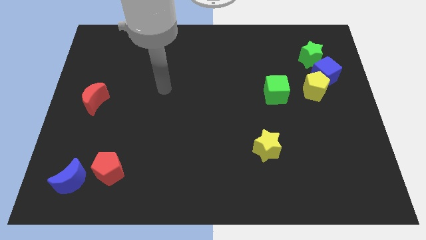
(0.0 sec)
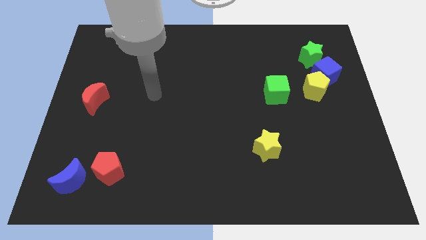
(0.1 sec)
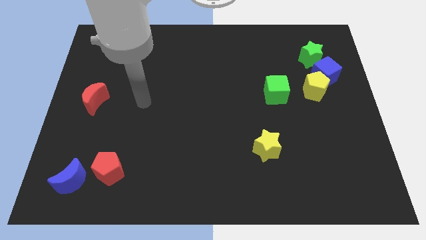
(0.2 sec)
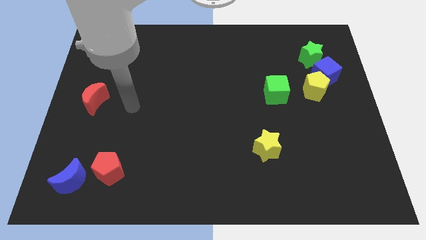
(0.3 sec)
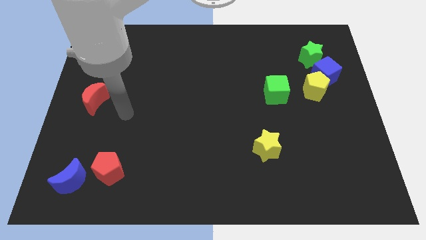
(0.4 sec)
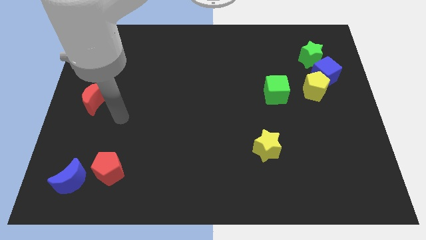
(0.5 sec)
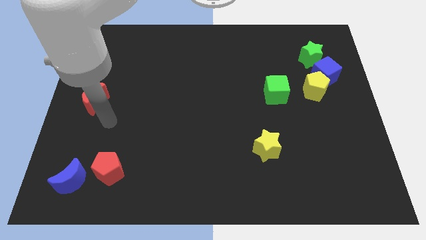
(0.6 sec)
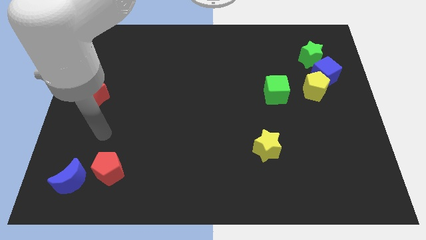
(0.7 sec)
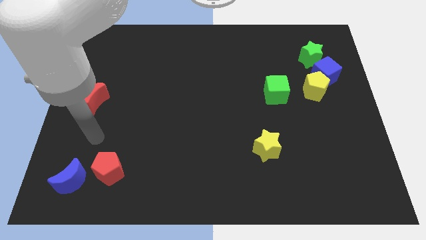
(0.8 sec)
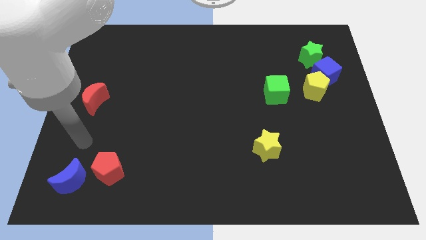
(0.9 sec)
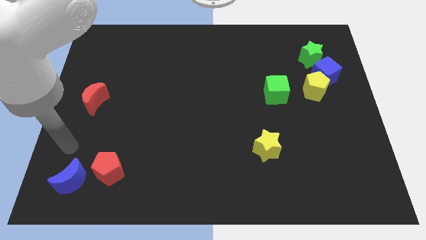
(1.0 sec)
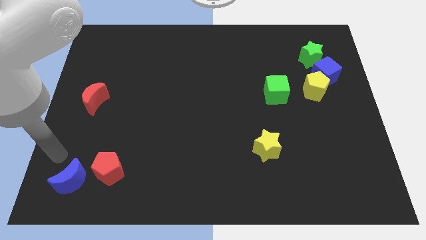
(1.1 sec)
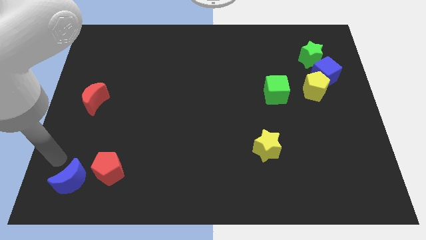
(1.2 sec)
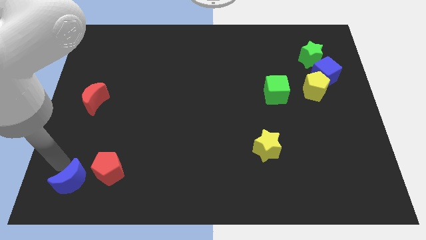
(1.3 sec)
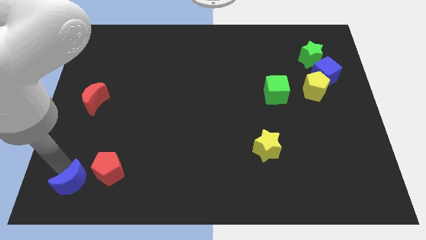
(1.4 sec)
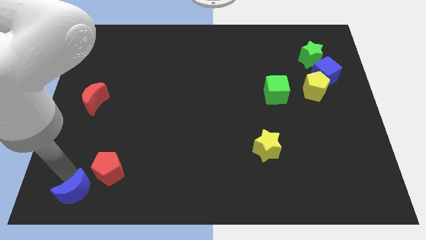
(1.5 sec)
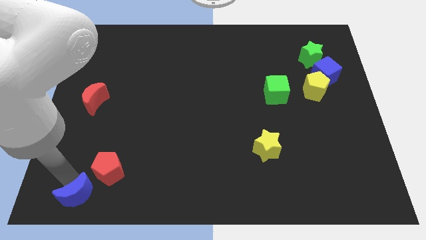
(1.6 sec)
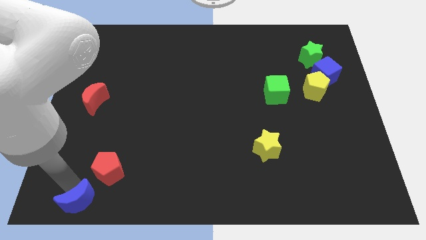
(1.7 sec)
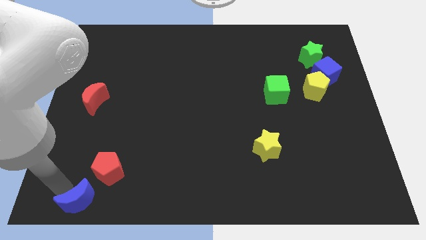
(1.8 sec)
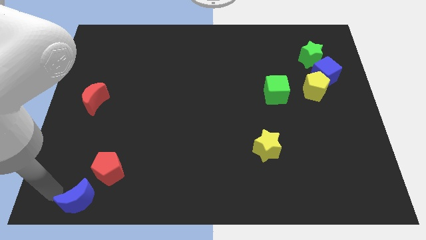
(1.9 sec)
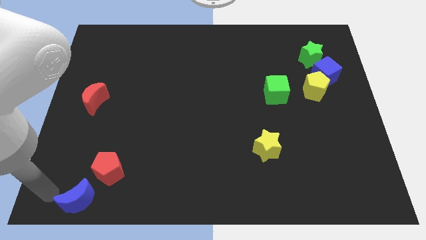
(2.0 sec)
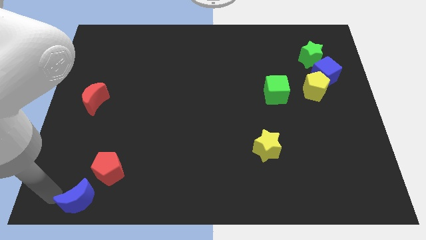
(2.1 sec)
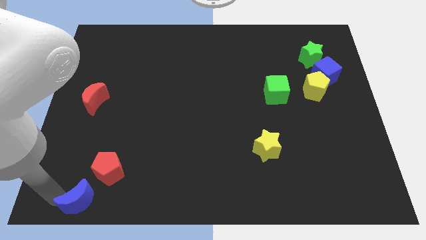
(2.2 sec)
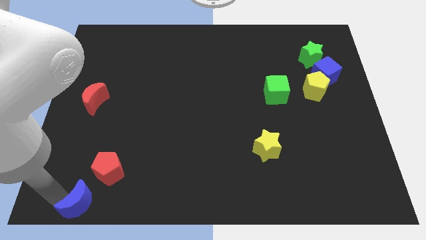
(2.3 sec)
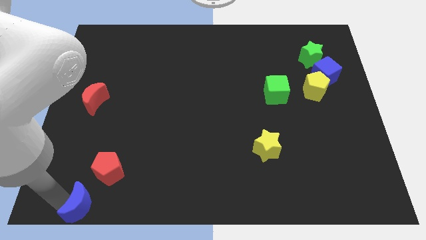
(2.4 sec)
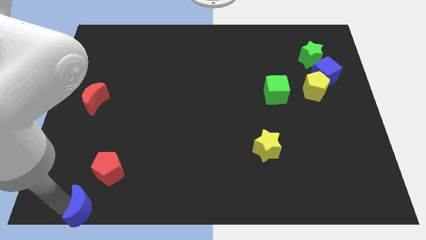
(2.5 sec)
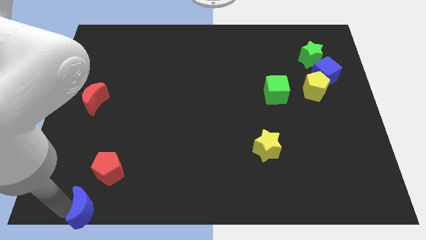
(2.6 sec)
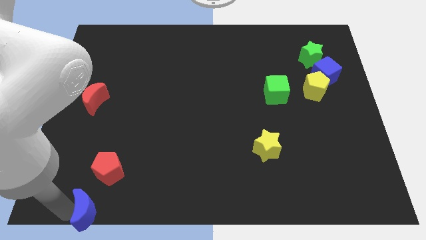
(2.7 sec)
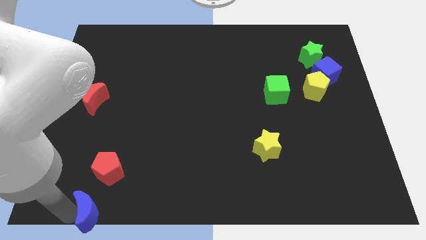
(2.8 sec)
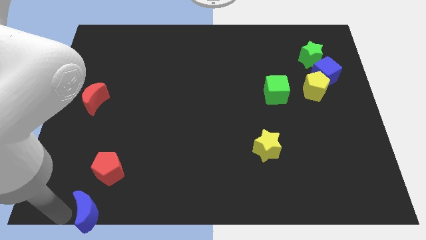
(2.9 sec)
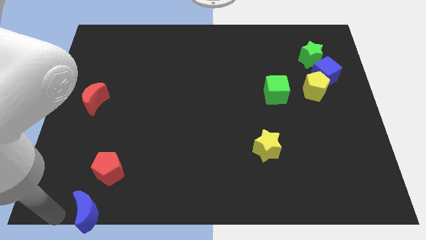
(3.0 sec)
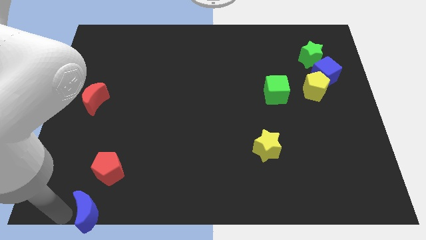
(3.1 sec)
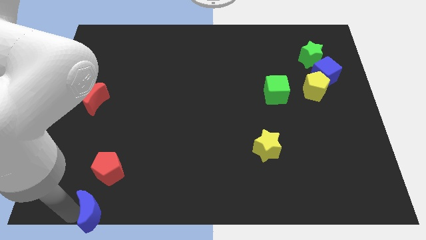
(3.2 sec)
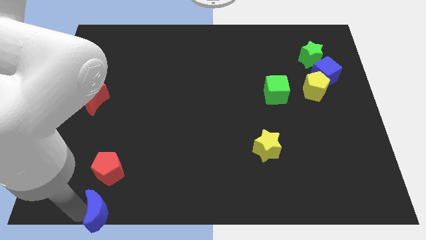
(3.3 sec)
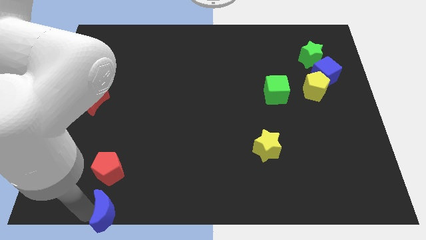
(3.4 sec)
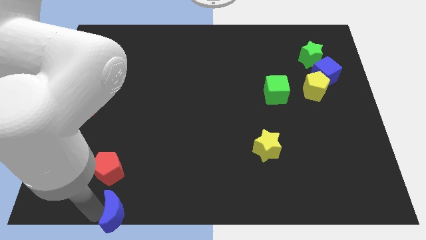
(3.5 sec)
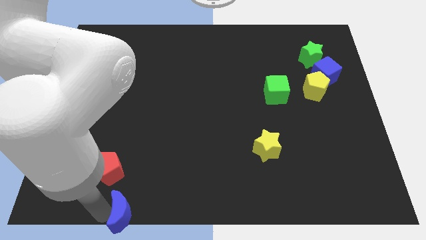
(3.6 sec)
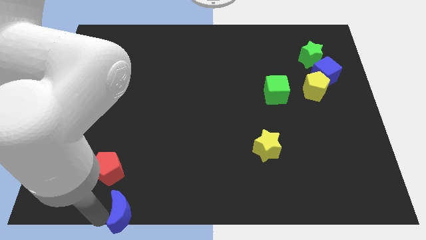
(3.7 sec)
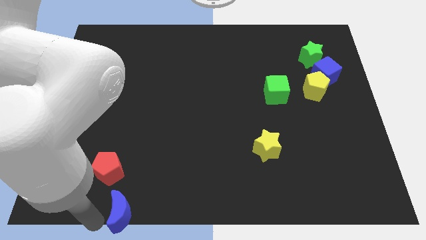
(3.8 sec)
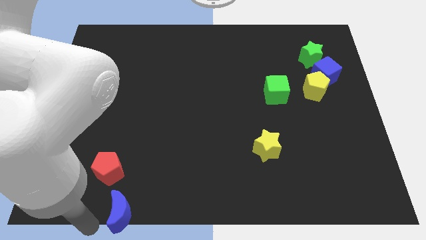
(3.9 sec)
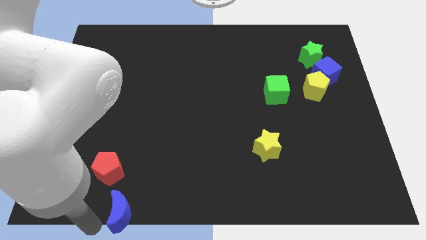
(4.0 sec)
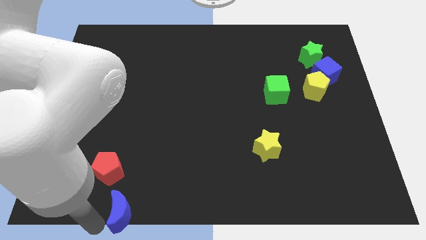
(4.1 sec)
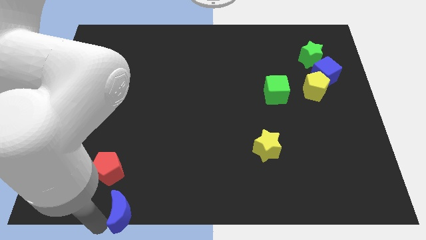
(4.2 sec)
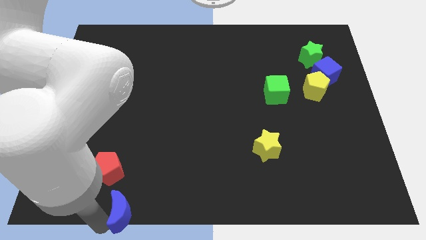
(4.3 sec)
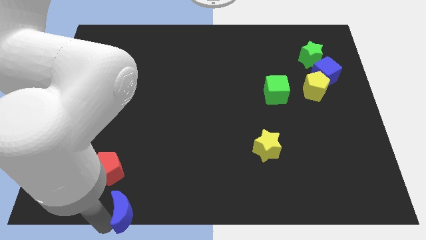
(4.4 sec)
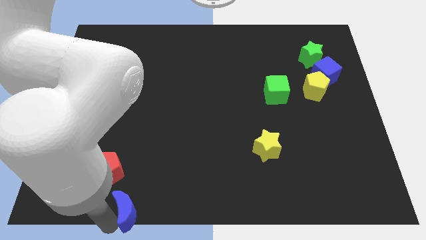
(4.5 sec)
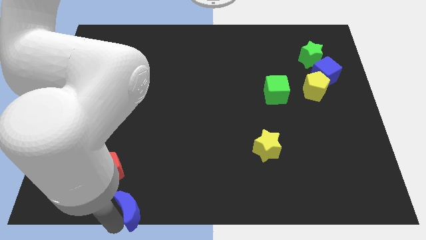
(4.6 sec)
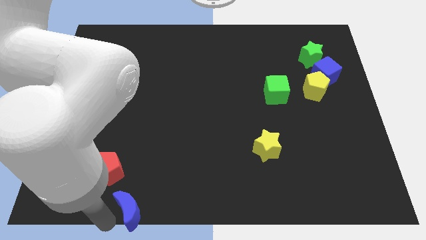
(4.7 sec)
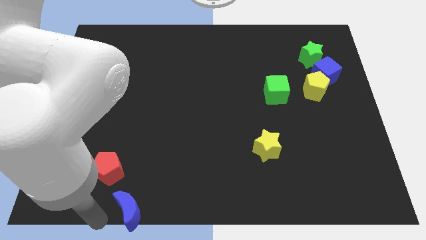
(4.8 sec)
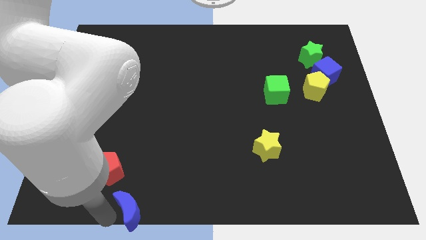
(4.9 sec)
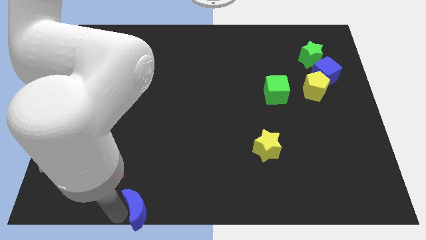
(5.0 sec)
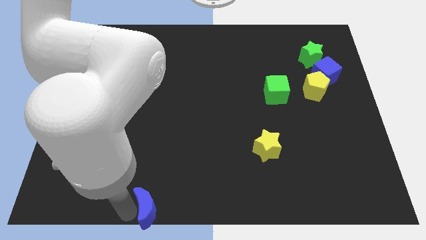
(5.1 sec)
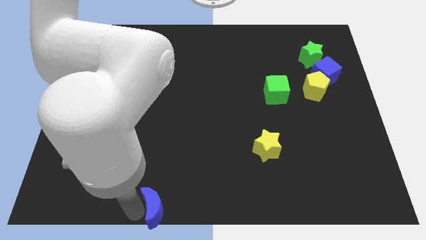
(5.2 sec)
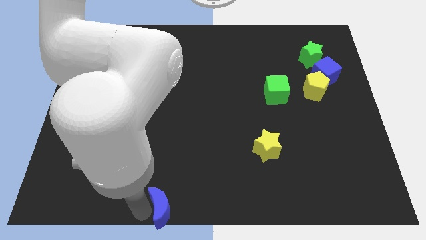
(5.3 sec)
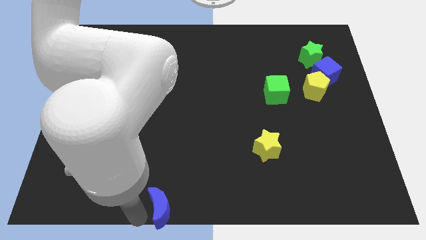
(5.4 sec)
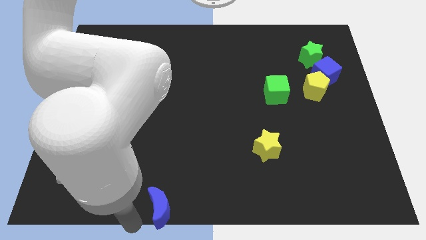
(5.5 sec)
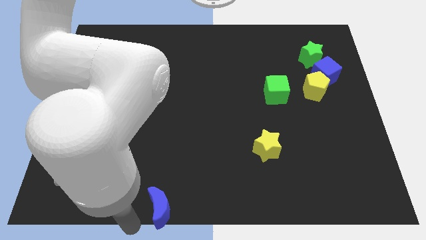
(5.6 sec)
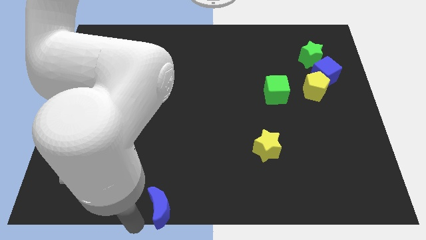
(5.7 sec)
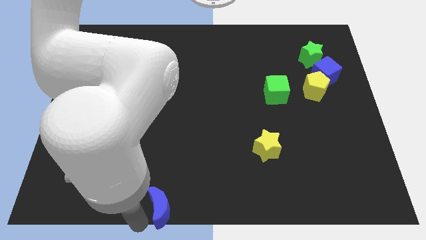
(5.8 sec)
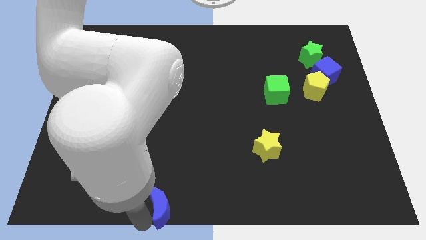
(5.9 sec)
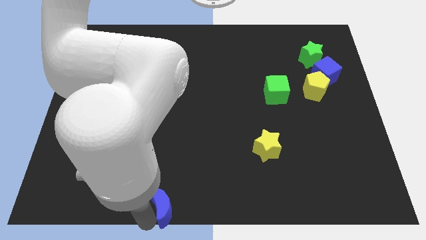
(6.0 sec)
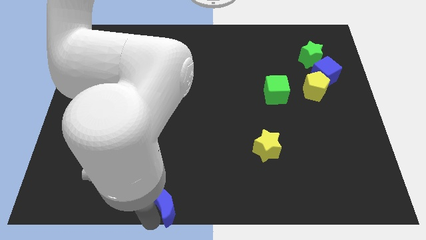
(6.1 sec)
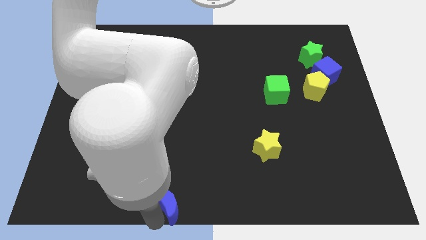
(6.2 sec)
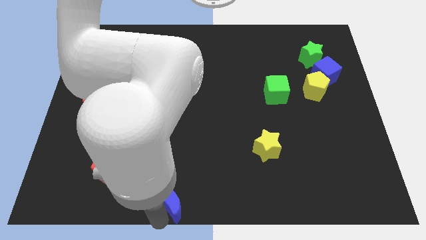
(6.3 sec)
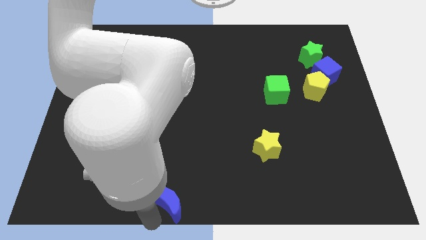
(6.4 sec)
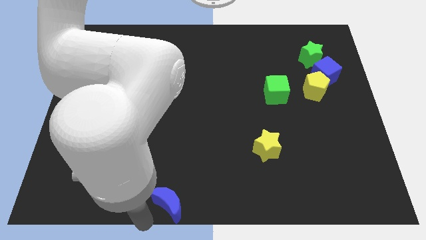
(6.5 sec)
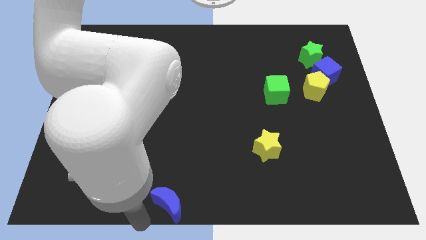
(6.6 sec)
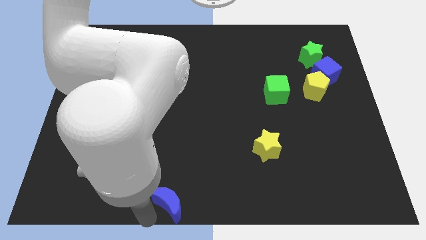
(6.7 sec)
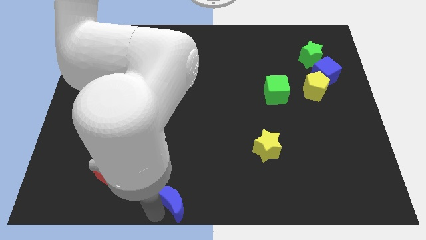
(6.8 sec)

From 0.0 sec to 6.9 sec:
slide the blue moon right

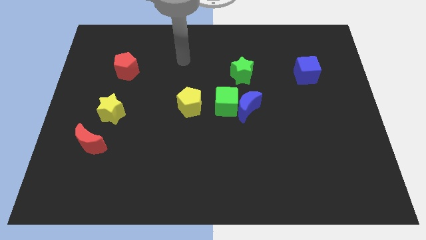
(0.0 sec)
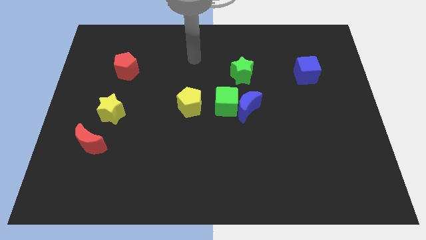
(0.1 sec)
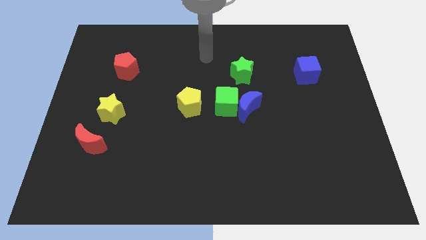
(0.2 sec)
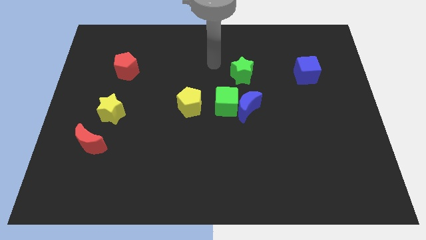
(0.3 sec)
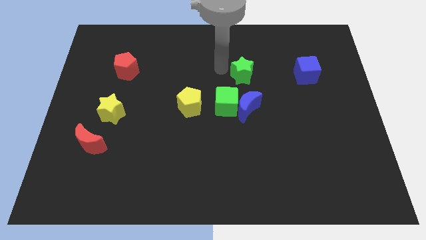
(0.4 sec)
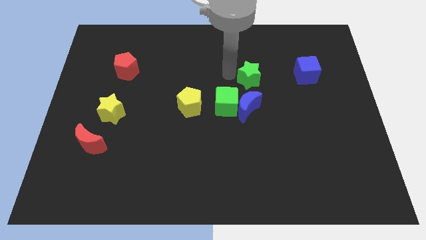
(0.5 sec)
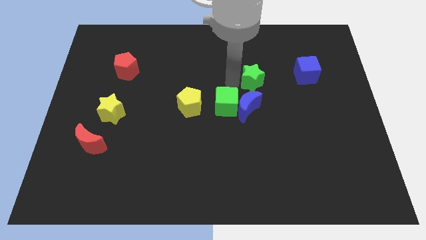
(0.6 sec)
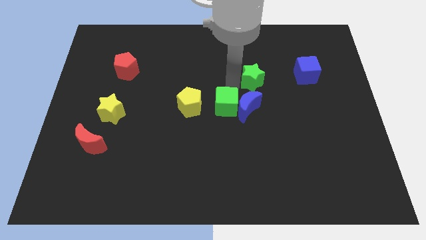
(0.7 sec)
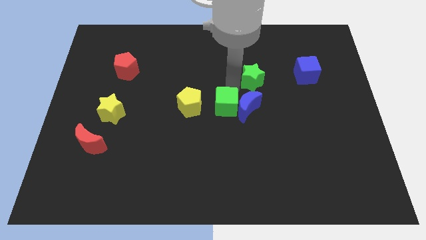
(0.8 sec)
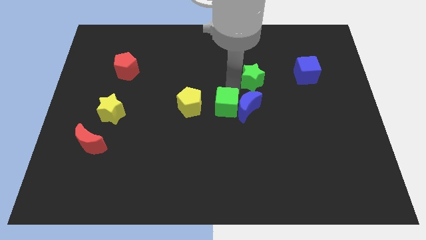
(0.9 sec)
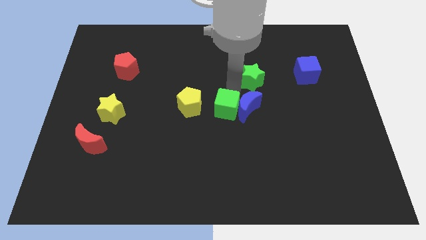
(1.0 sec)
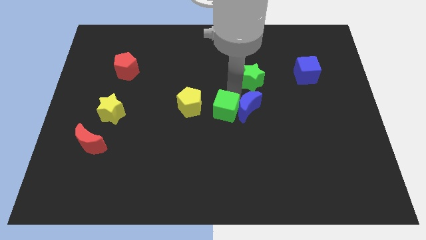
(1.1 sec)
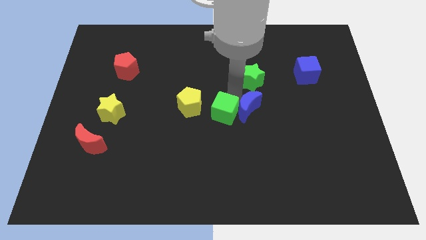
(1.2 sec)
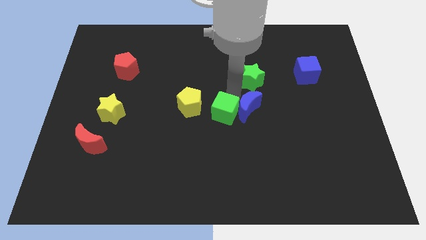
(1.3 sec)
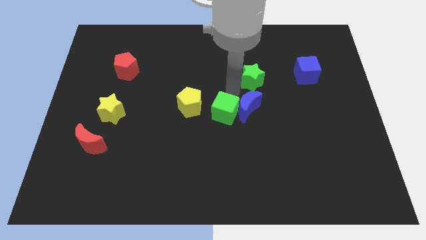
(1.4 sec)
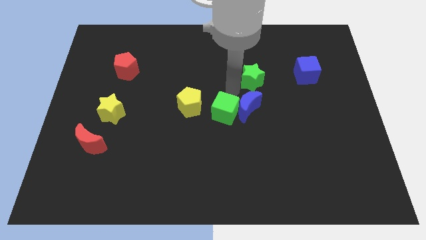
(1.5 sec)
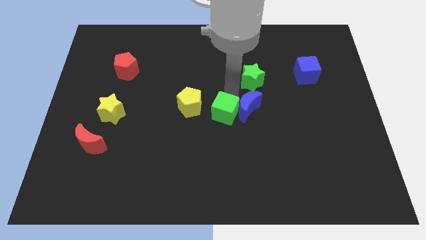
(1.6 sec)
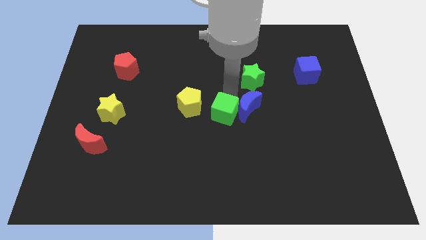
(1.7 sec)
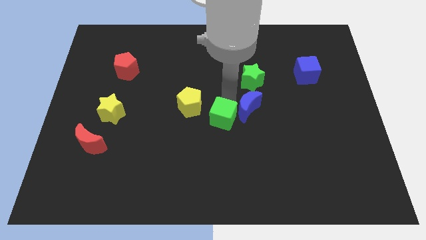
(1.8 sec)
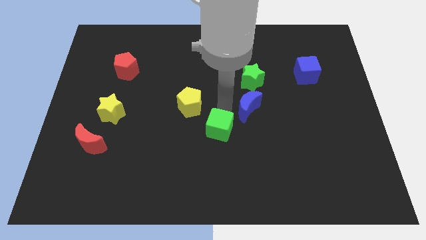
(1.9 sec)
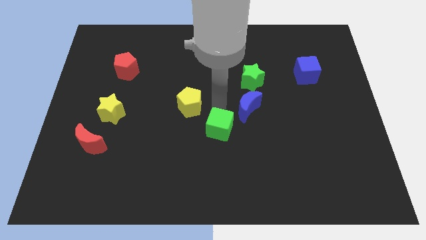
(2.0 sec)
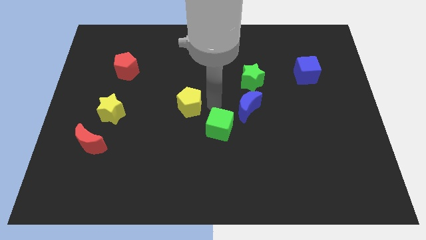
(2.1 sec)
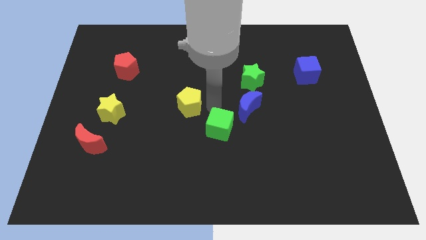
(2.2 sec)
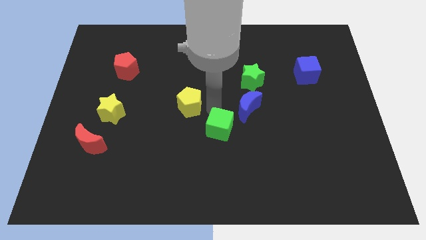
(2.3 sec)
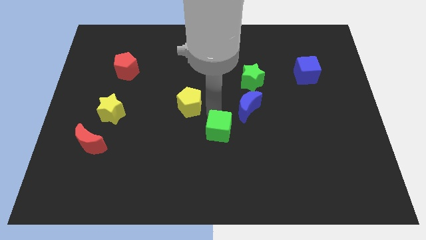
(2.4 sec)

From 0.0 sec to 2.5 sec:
slightly push the green cube down
